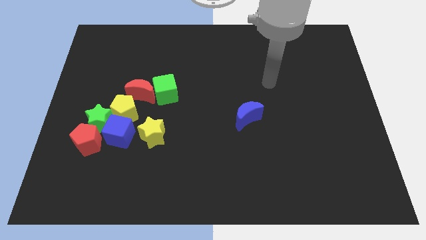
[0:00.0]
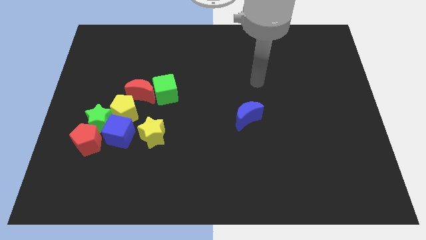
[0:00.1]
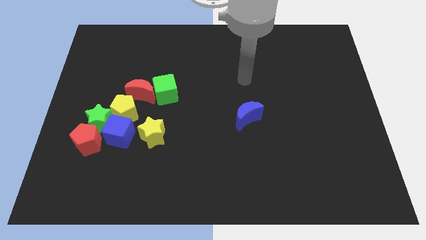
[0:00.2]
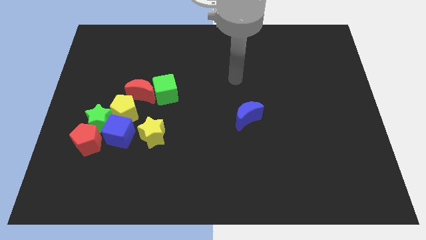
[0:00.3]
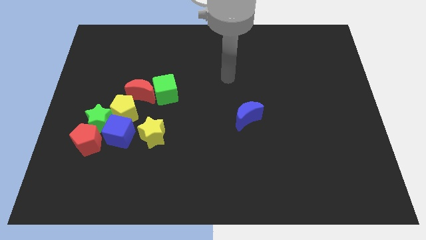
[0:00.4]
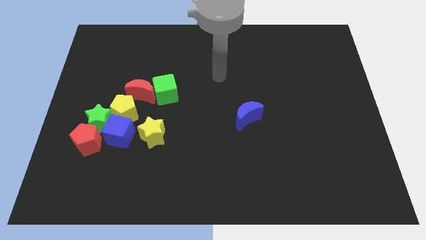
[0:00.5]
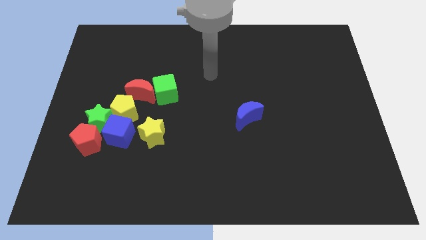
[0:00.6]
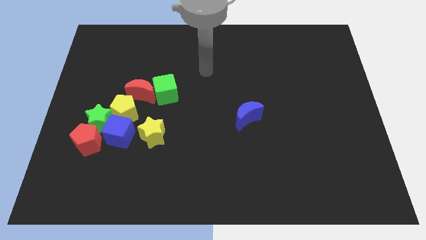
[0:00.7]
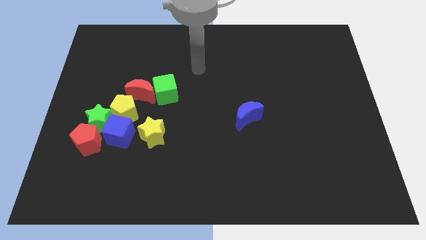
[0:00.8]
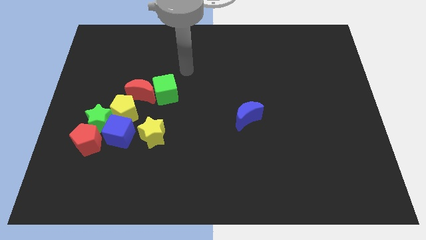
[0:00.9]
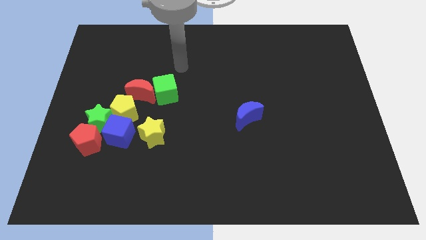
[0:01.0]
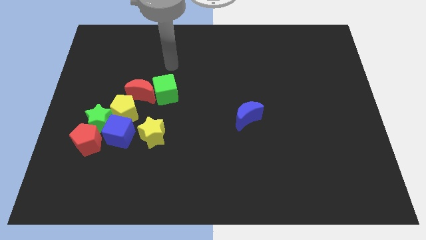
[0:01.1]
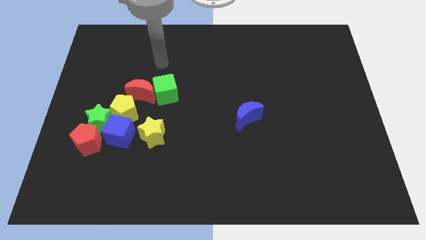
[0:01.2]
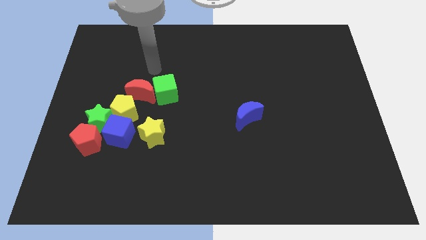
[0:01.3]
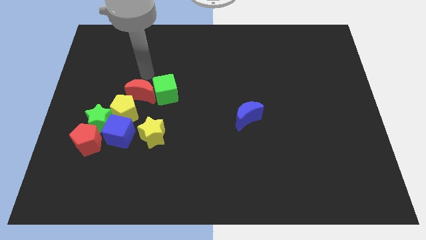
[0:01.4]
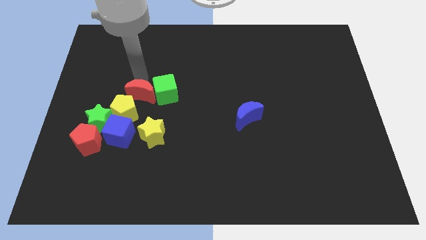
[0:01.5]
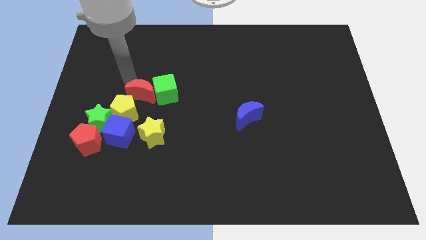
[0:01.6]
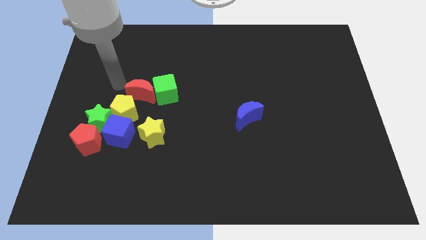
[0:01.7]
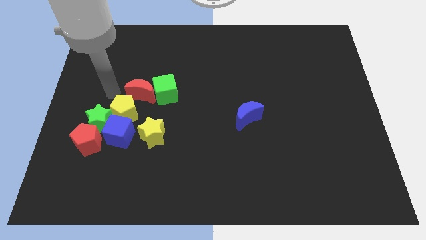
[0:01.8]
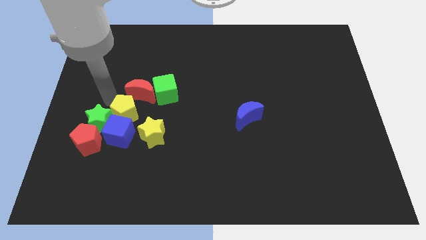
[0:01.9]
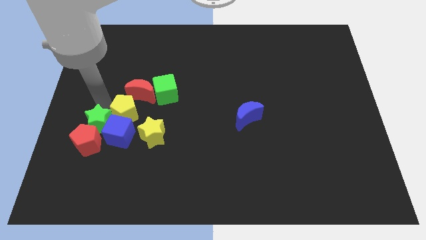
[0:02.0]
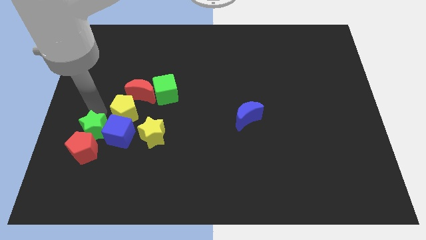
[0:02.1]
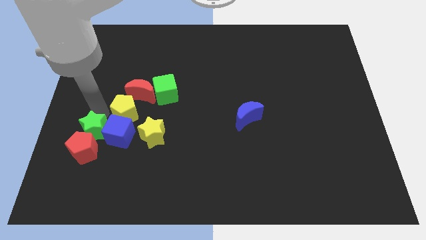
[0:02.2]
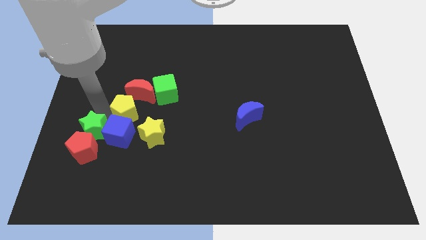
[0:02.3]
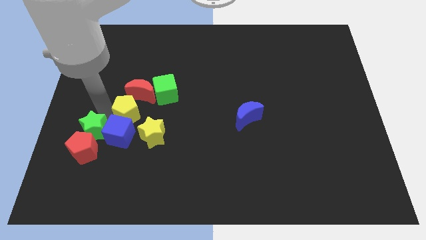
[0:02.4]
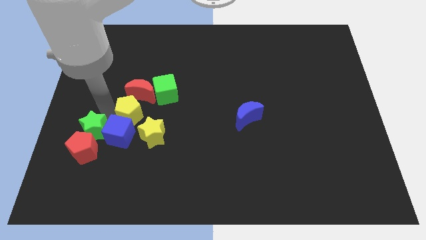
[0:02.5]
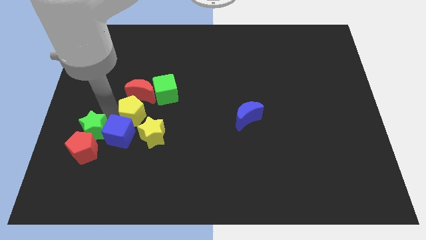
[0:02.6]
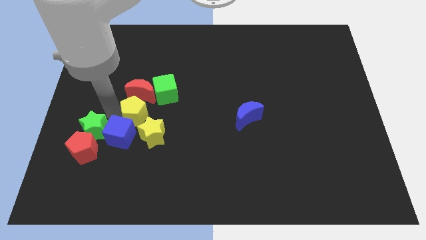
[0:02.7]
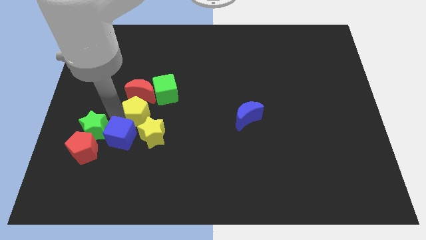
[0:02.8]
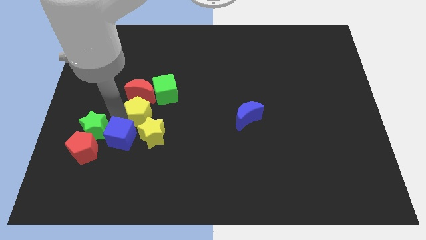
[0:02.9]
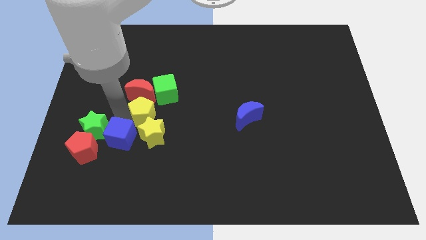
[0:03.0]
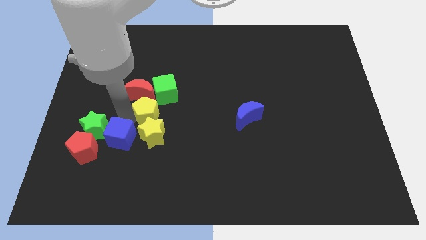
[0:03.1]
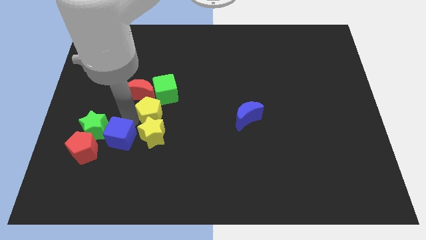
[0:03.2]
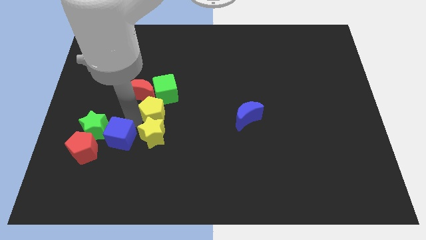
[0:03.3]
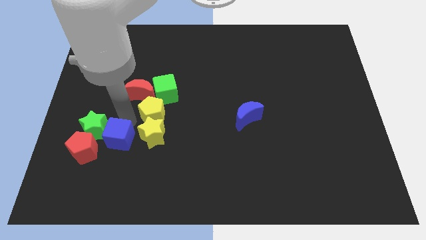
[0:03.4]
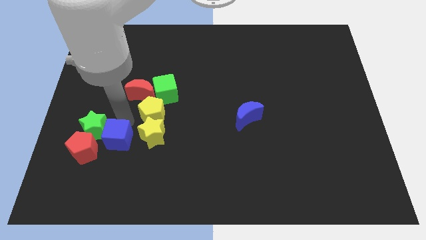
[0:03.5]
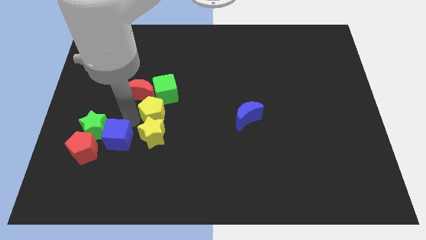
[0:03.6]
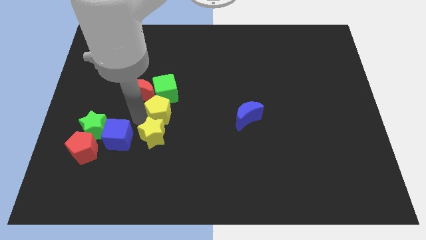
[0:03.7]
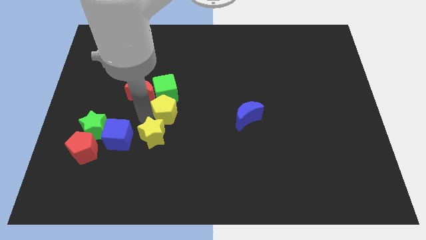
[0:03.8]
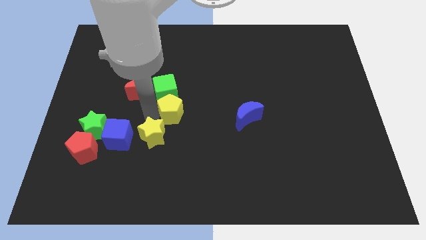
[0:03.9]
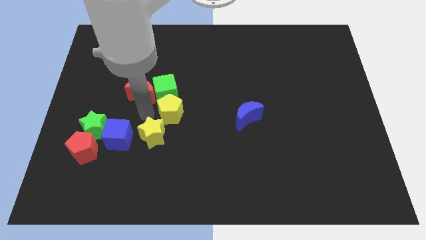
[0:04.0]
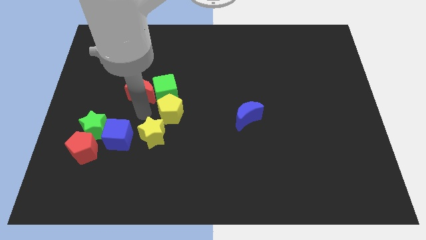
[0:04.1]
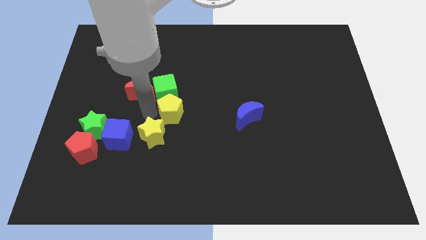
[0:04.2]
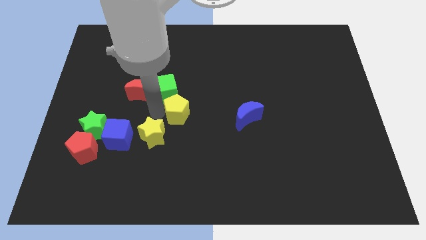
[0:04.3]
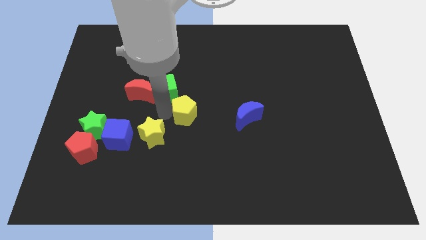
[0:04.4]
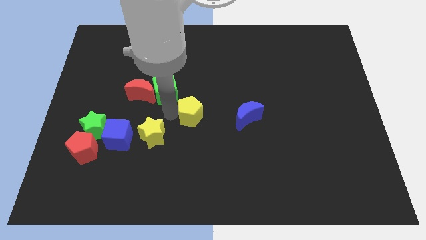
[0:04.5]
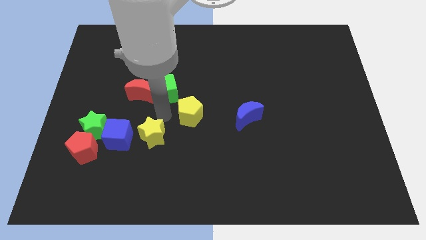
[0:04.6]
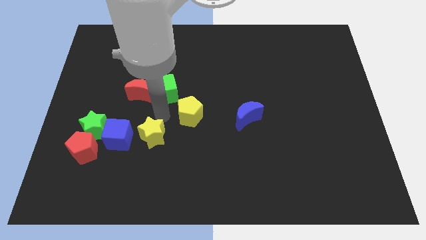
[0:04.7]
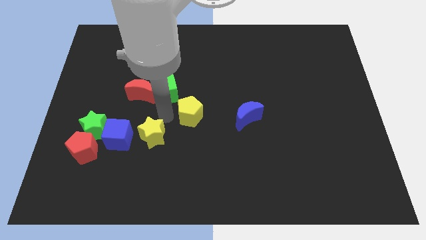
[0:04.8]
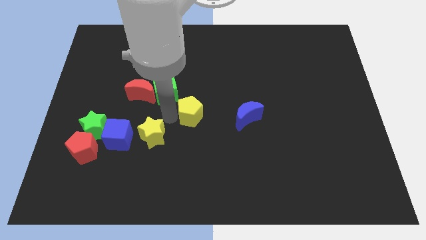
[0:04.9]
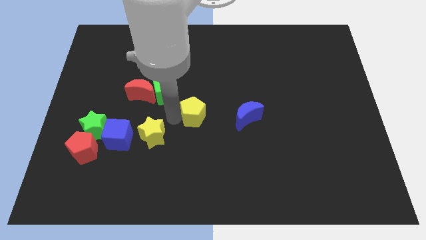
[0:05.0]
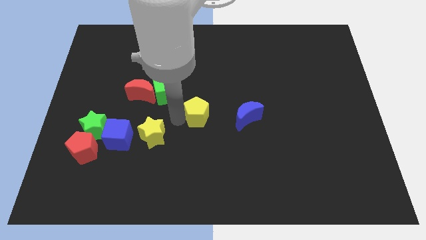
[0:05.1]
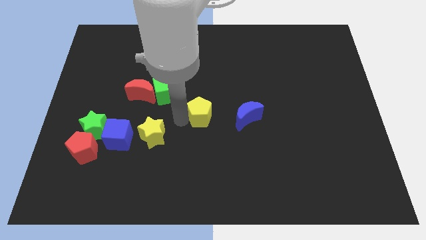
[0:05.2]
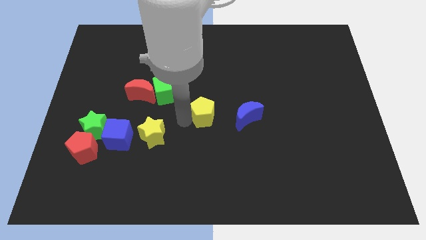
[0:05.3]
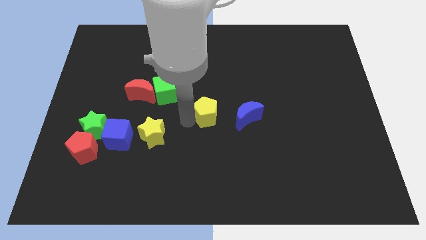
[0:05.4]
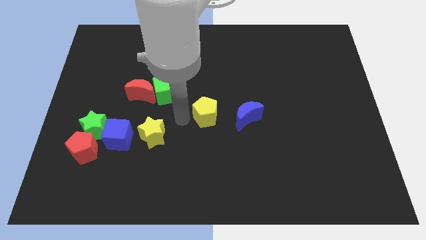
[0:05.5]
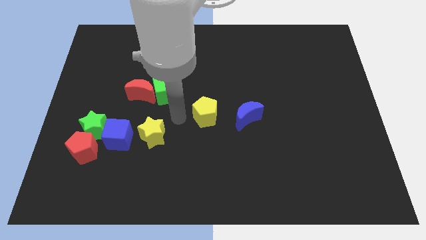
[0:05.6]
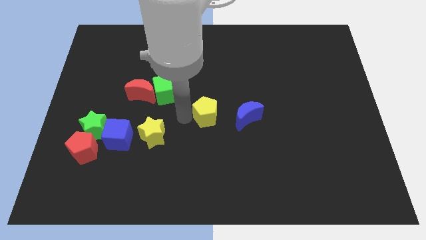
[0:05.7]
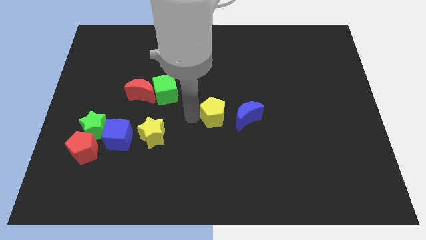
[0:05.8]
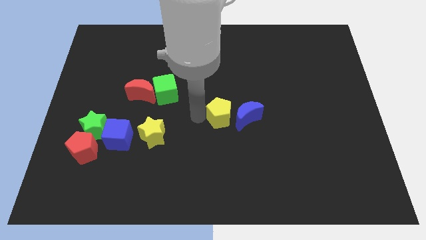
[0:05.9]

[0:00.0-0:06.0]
move the yellow pentagon next to the blue moon

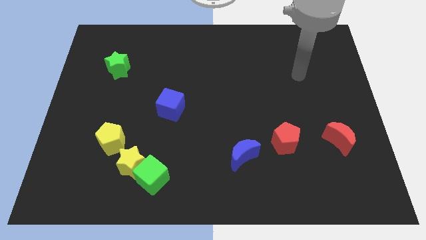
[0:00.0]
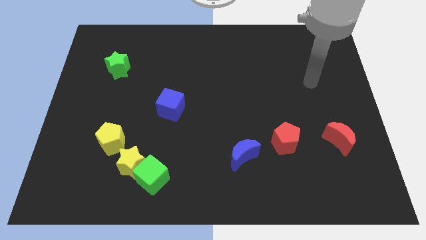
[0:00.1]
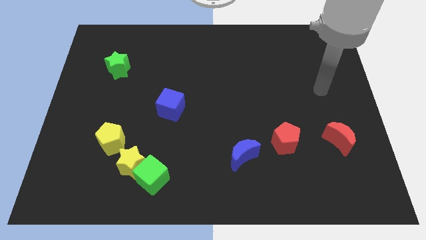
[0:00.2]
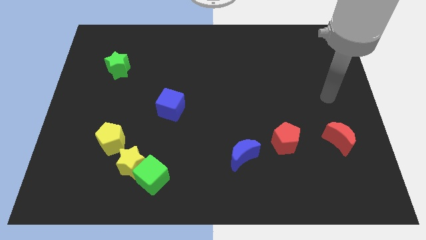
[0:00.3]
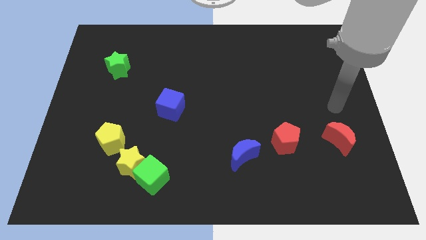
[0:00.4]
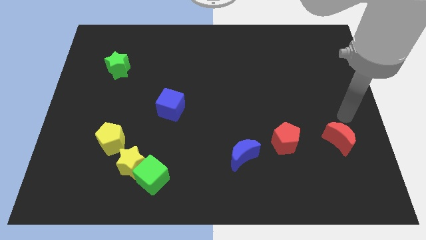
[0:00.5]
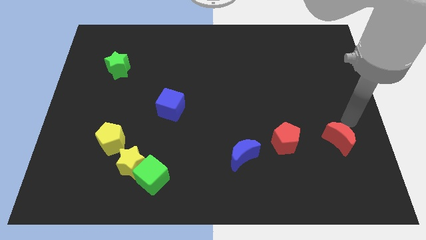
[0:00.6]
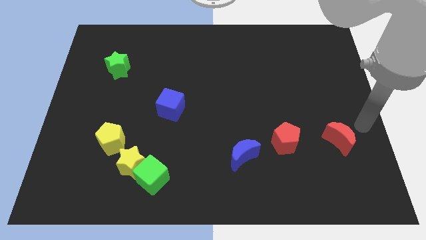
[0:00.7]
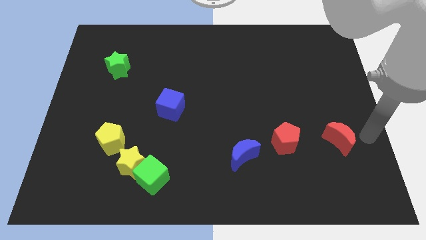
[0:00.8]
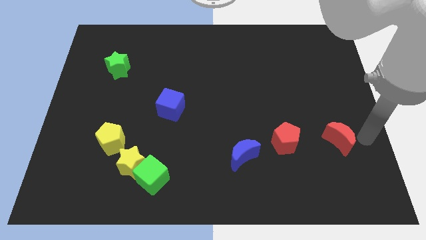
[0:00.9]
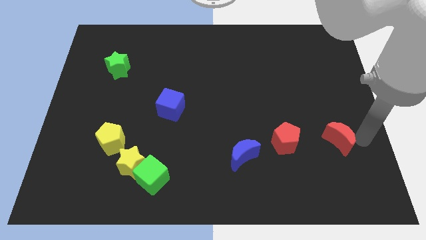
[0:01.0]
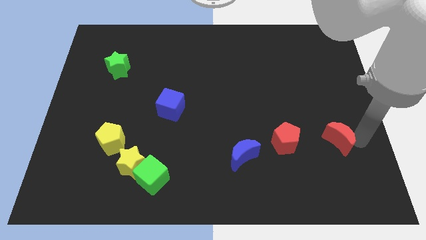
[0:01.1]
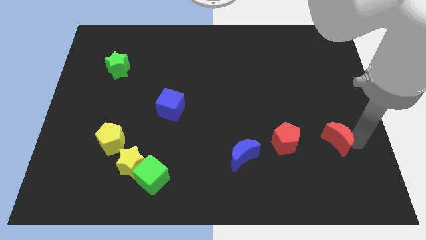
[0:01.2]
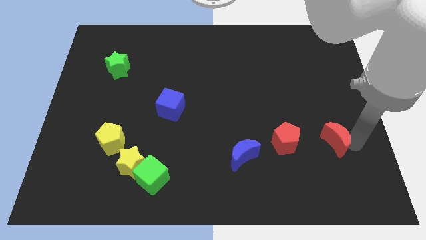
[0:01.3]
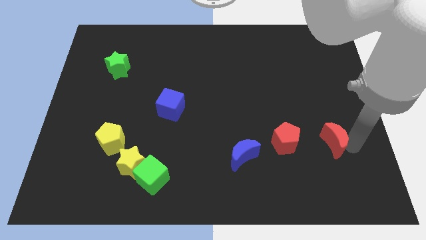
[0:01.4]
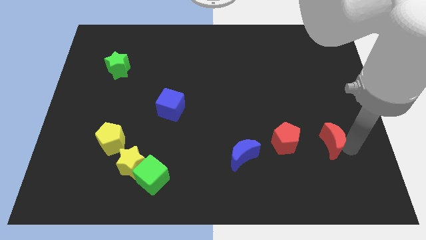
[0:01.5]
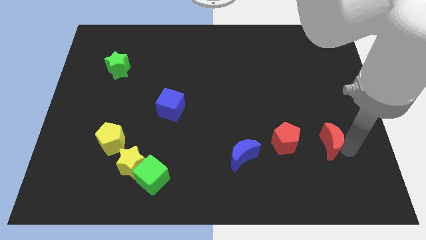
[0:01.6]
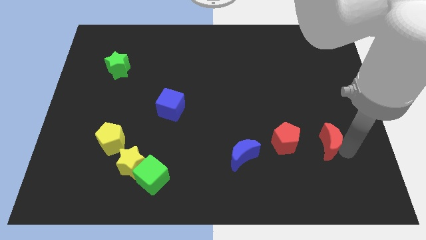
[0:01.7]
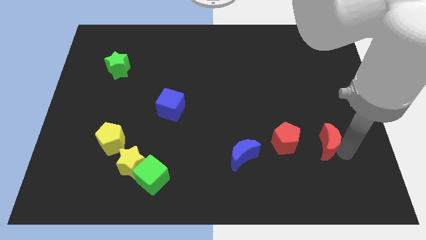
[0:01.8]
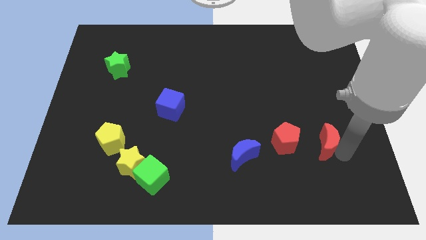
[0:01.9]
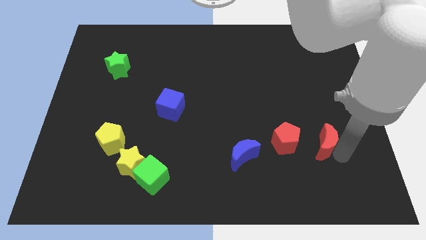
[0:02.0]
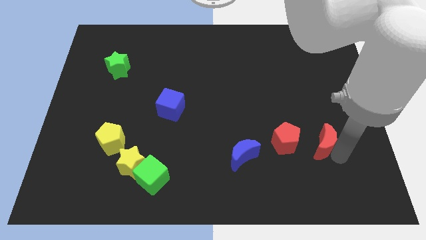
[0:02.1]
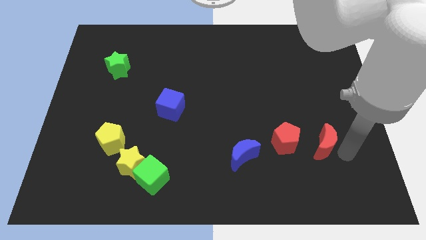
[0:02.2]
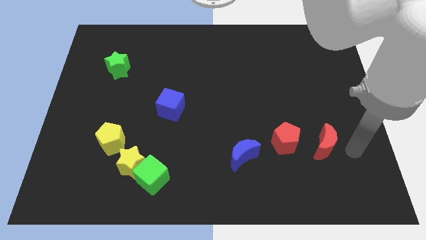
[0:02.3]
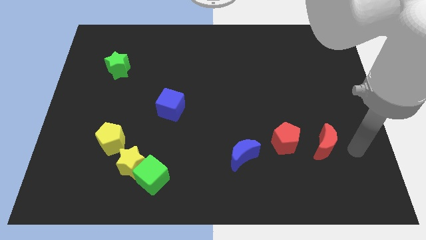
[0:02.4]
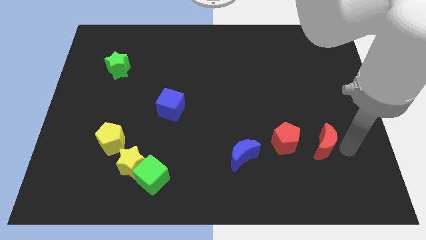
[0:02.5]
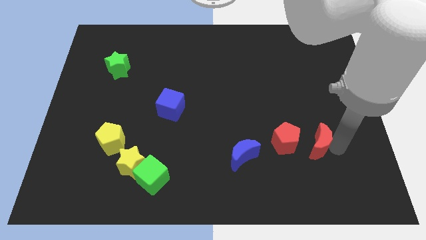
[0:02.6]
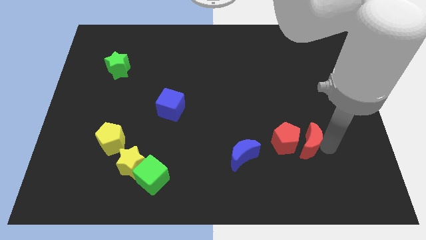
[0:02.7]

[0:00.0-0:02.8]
move the red moon close to the red pentagon
